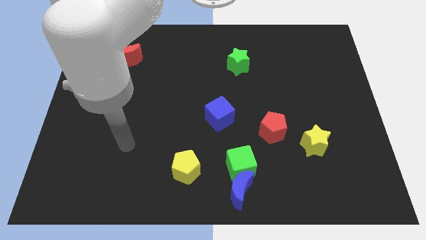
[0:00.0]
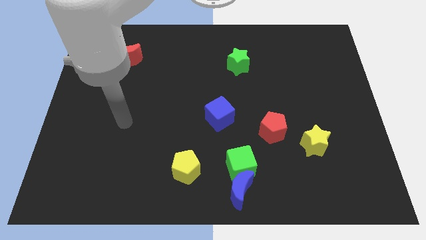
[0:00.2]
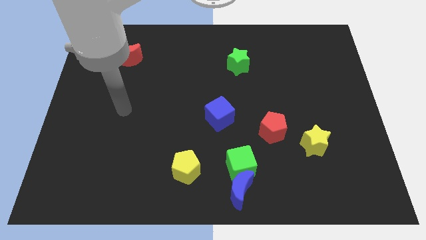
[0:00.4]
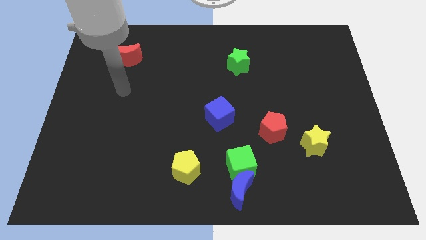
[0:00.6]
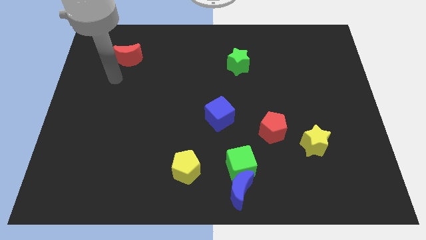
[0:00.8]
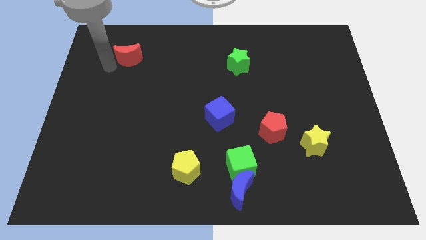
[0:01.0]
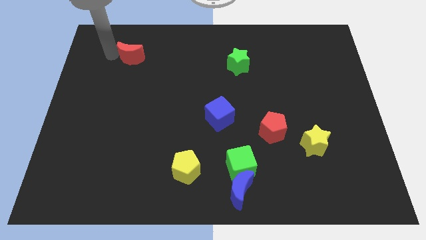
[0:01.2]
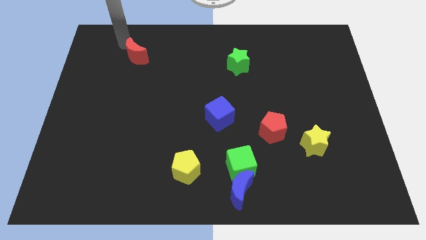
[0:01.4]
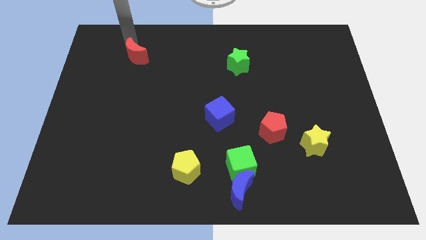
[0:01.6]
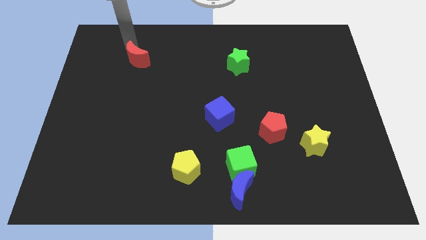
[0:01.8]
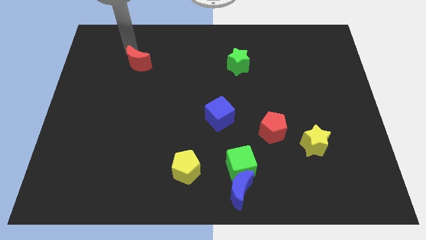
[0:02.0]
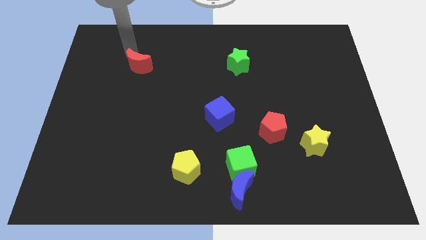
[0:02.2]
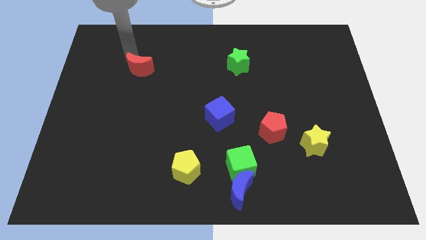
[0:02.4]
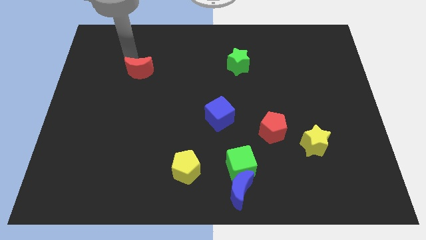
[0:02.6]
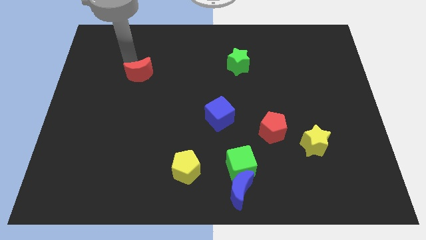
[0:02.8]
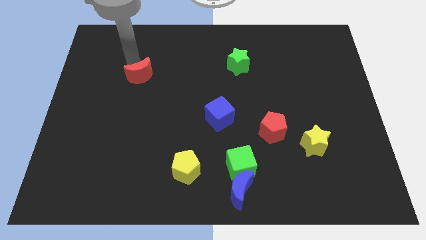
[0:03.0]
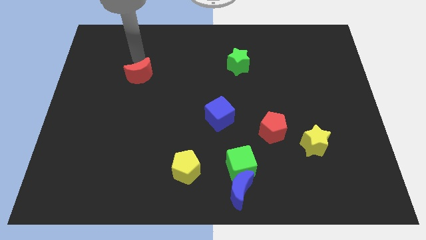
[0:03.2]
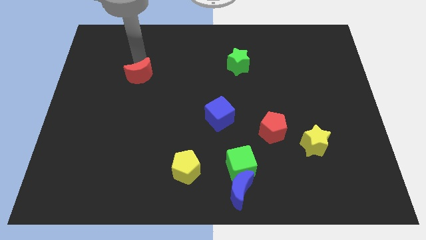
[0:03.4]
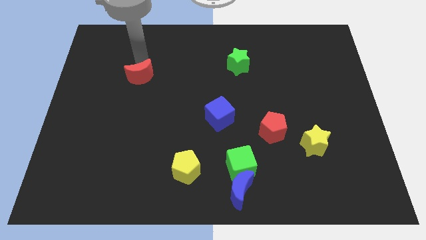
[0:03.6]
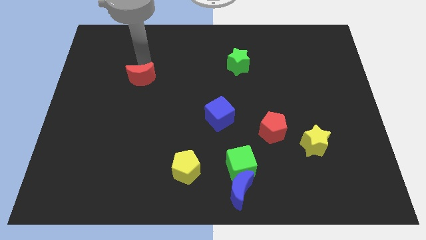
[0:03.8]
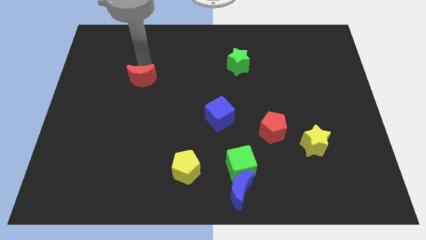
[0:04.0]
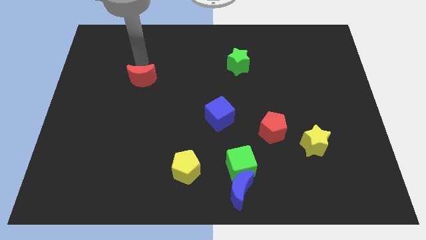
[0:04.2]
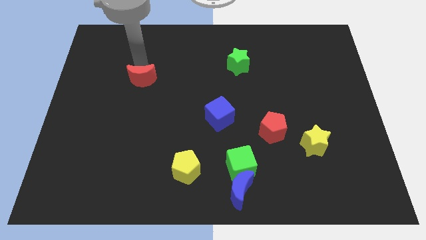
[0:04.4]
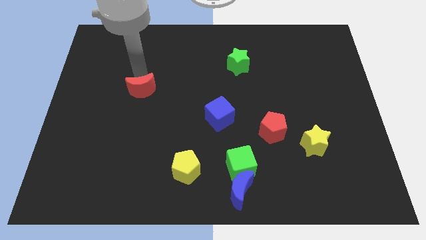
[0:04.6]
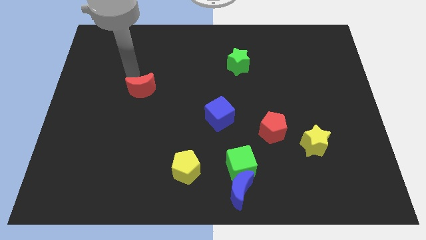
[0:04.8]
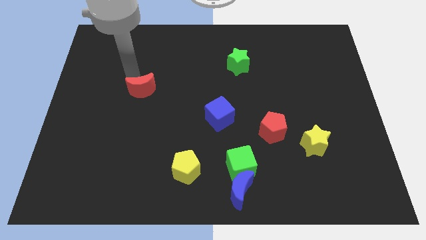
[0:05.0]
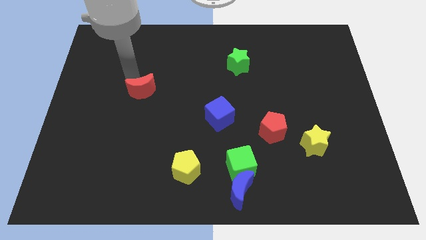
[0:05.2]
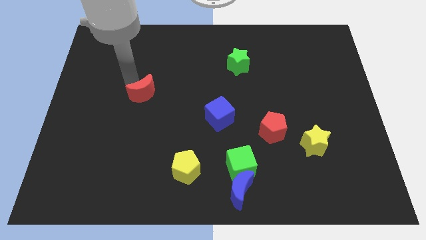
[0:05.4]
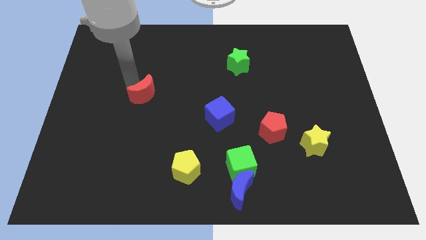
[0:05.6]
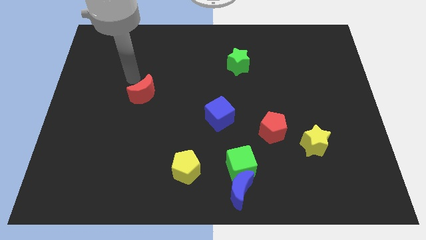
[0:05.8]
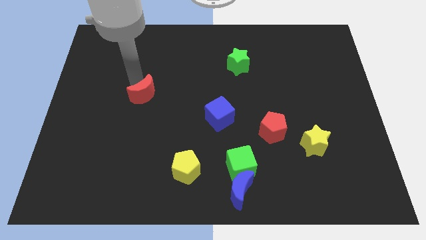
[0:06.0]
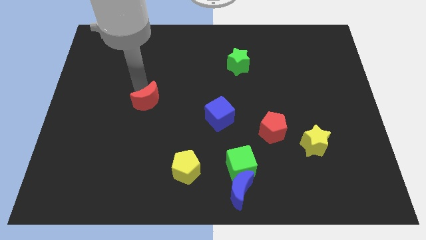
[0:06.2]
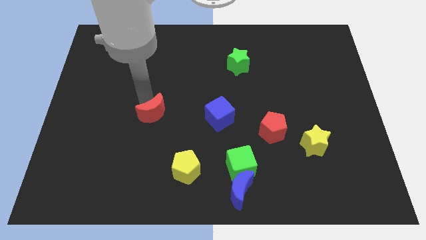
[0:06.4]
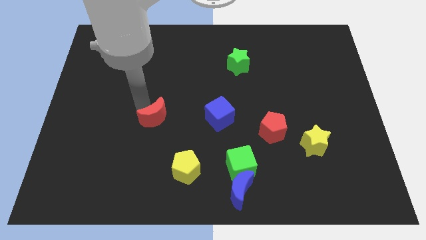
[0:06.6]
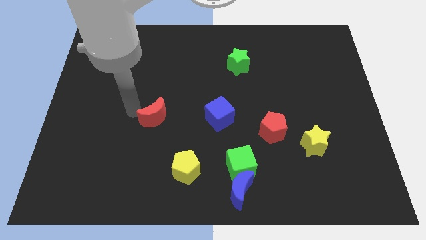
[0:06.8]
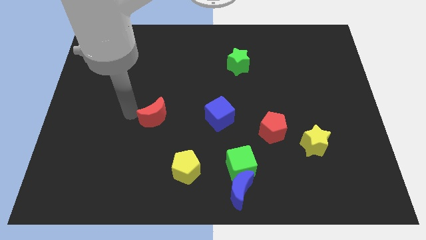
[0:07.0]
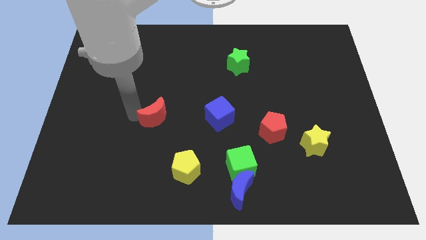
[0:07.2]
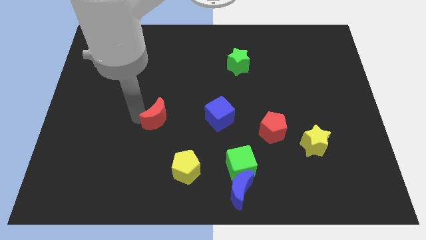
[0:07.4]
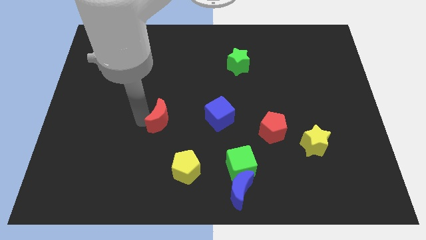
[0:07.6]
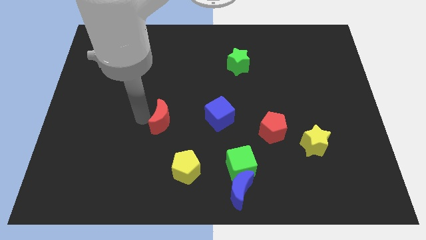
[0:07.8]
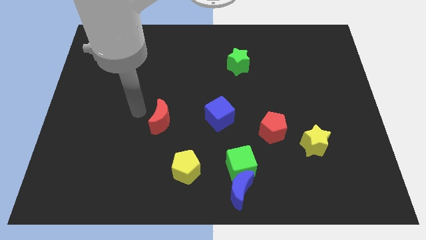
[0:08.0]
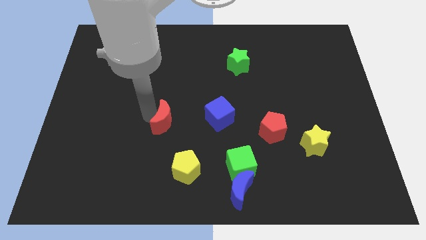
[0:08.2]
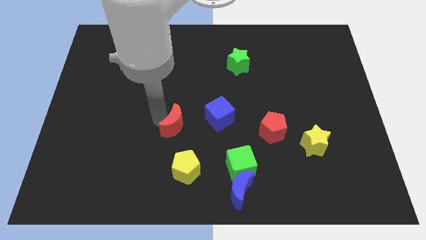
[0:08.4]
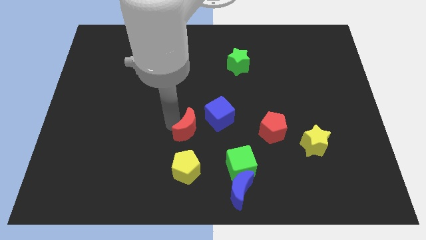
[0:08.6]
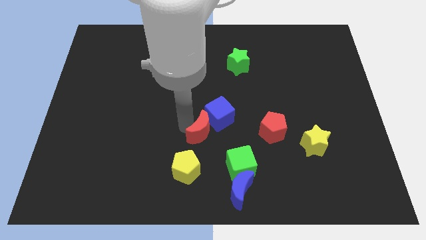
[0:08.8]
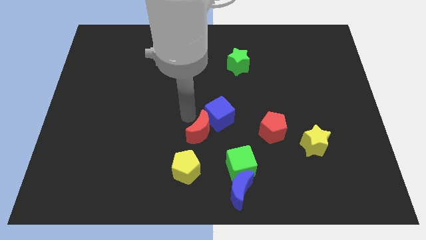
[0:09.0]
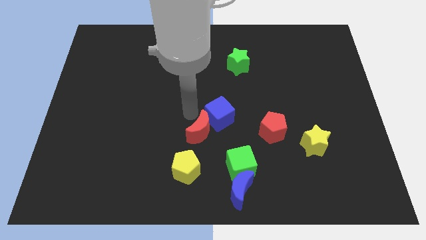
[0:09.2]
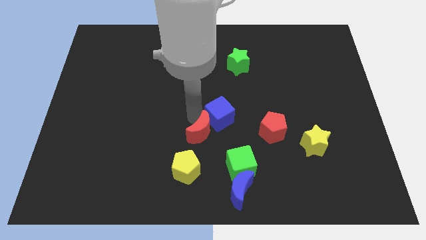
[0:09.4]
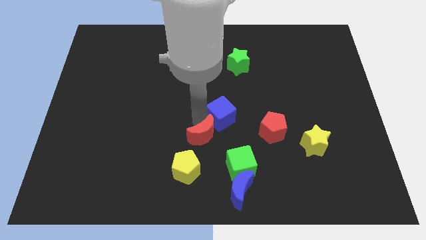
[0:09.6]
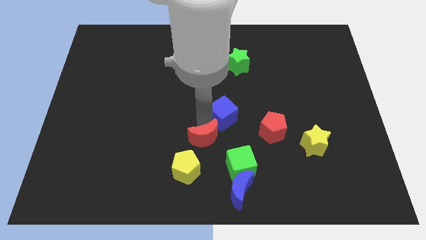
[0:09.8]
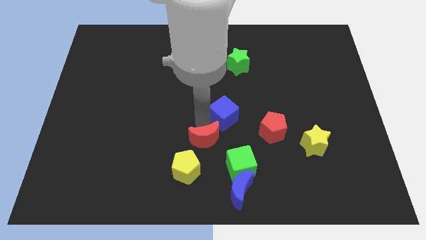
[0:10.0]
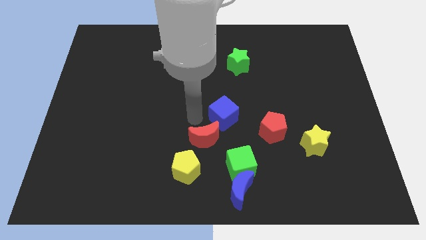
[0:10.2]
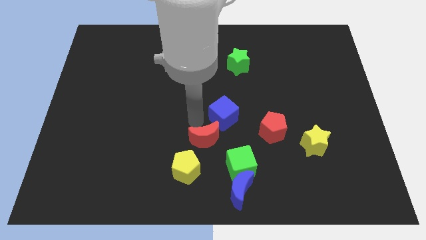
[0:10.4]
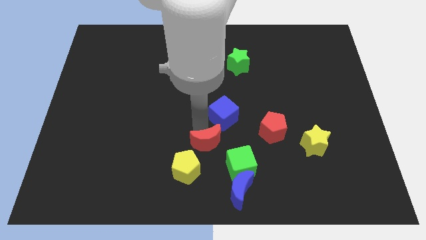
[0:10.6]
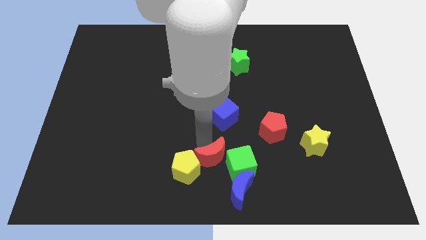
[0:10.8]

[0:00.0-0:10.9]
put the red moon towards the green cube

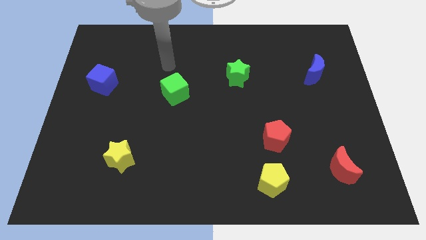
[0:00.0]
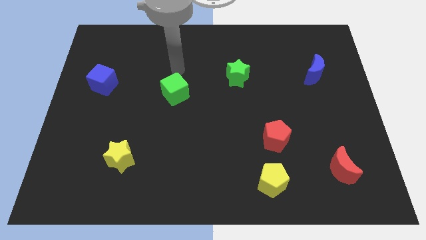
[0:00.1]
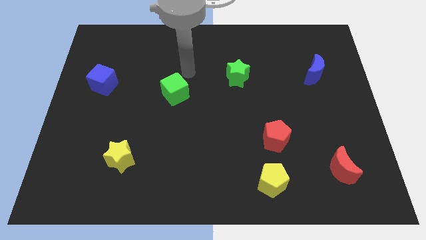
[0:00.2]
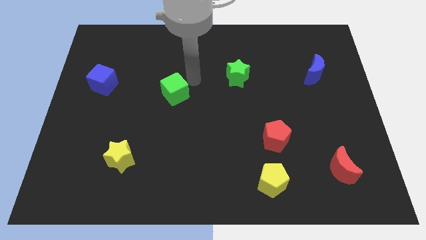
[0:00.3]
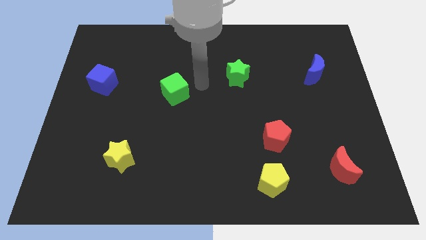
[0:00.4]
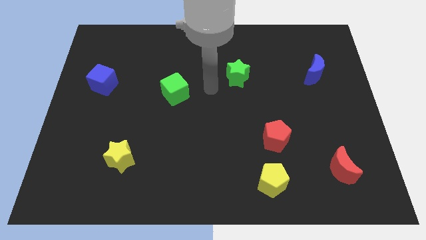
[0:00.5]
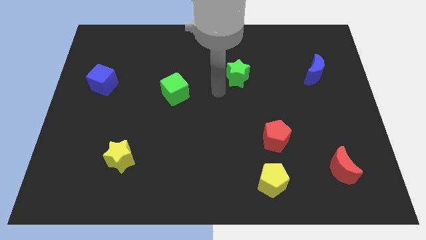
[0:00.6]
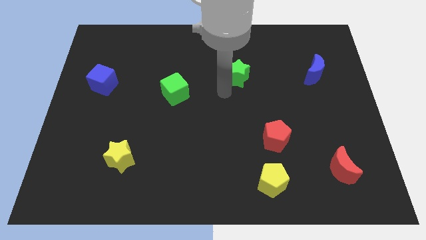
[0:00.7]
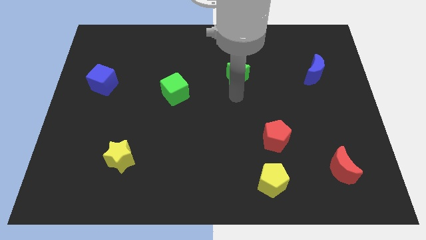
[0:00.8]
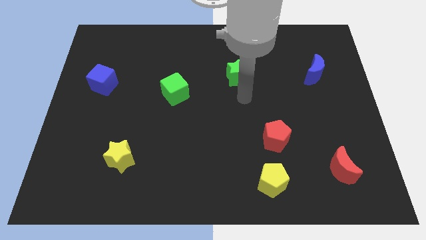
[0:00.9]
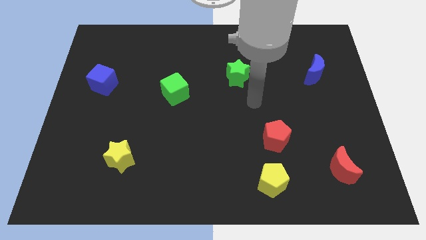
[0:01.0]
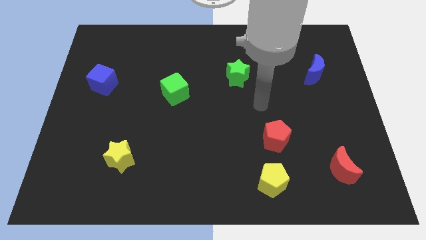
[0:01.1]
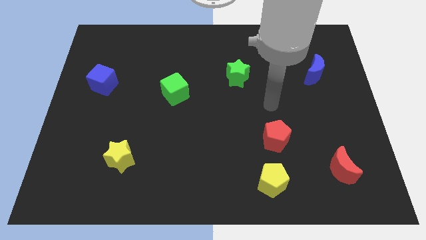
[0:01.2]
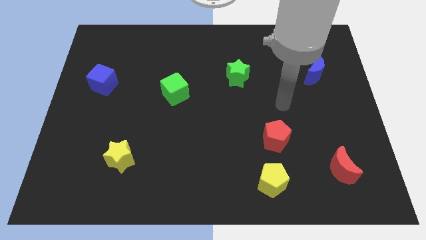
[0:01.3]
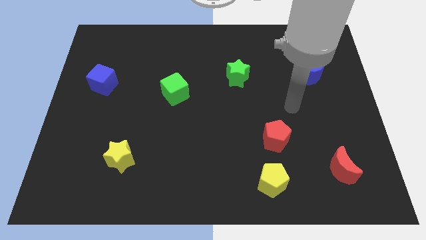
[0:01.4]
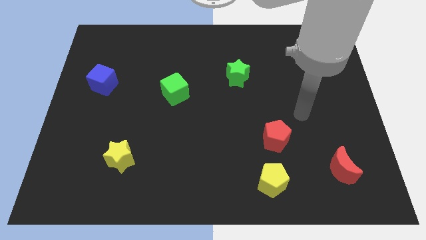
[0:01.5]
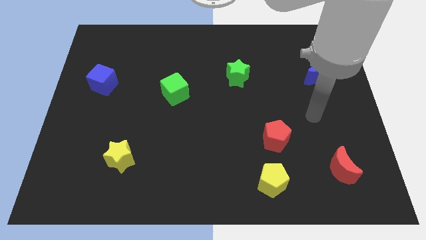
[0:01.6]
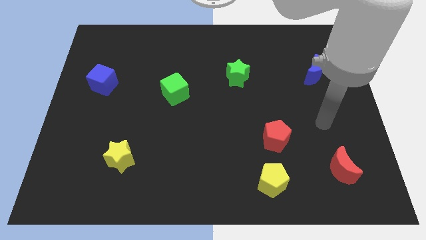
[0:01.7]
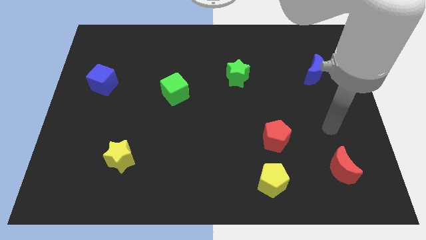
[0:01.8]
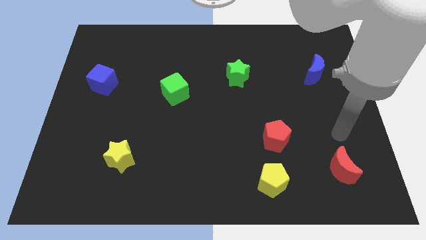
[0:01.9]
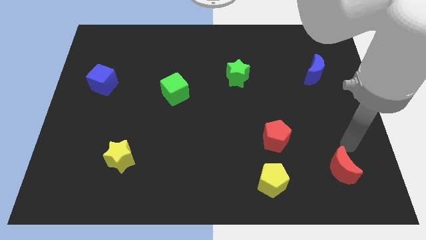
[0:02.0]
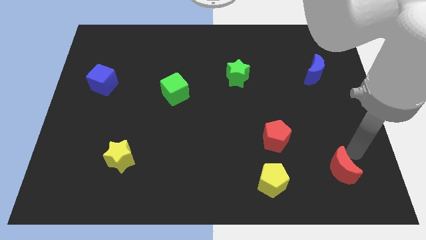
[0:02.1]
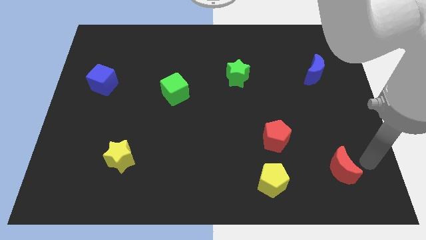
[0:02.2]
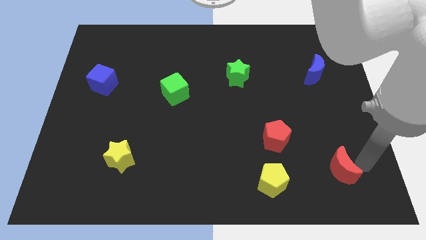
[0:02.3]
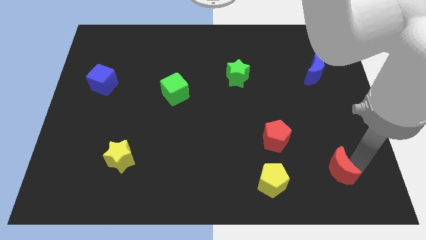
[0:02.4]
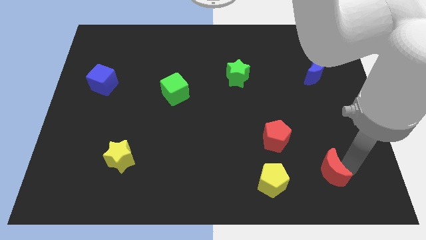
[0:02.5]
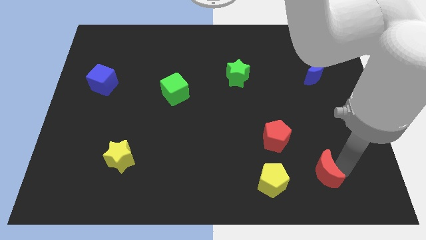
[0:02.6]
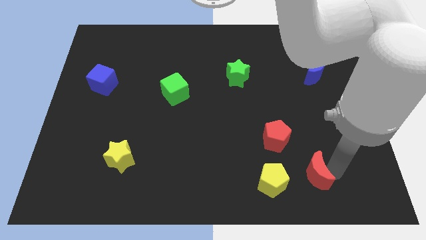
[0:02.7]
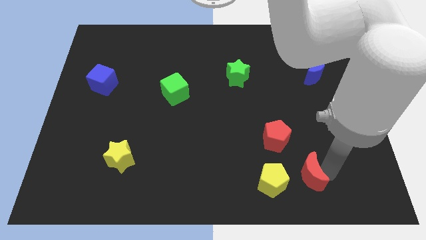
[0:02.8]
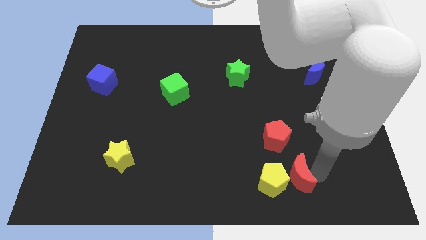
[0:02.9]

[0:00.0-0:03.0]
put the red moon towards the yellow pentagon
